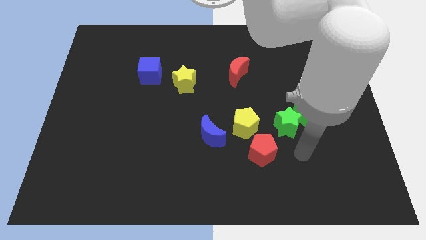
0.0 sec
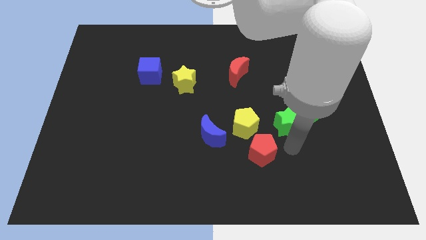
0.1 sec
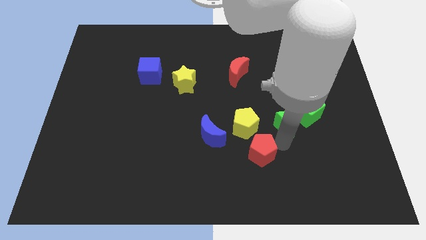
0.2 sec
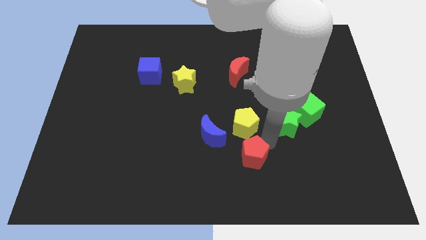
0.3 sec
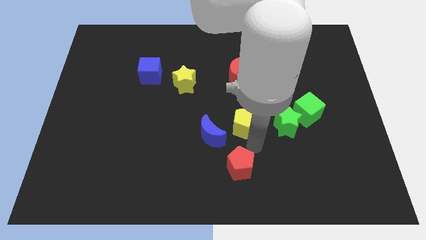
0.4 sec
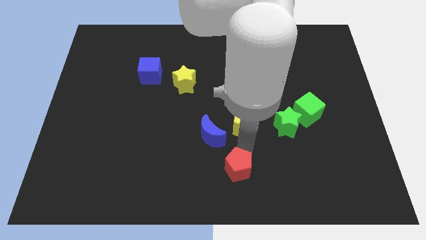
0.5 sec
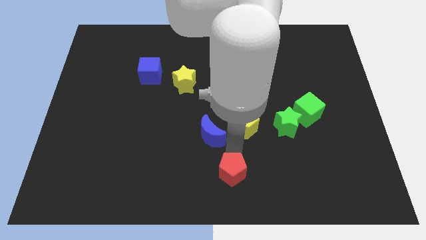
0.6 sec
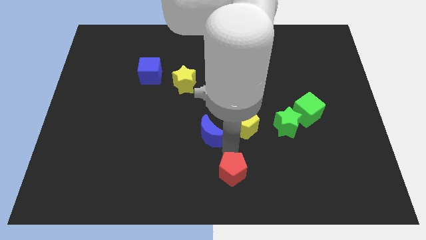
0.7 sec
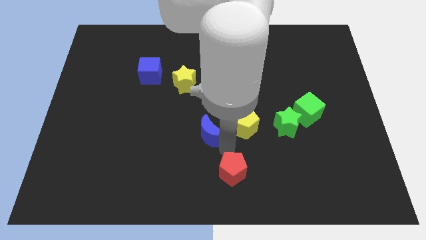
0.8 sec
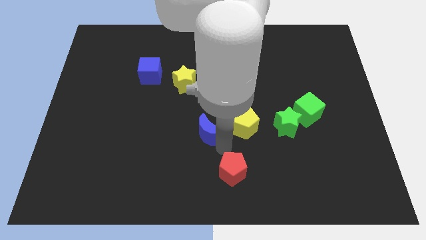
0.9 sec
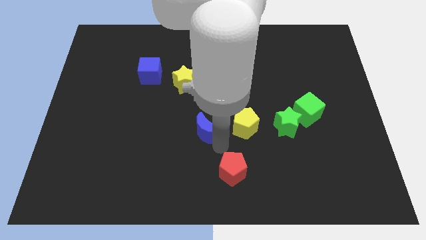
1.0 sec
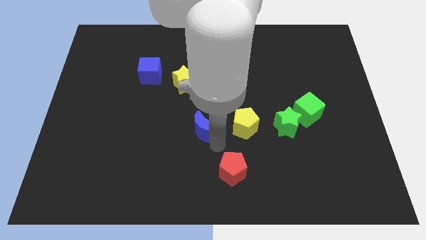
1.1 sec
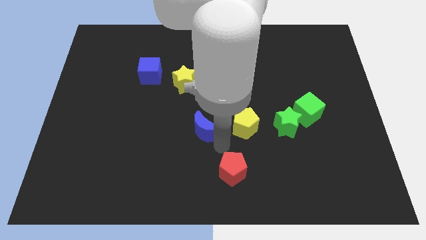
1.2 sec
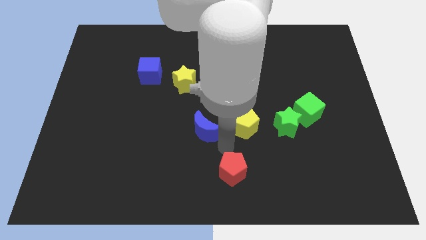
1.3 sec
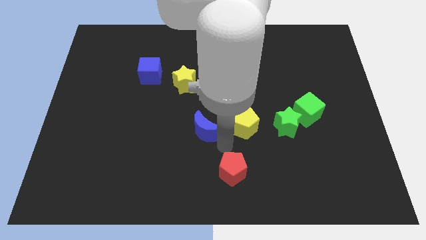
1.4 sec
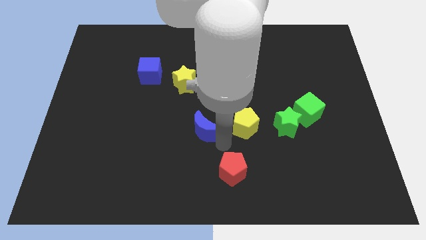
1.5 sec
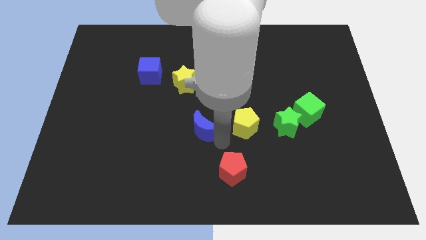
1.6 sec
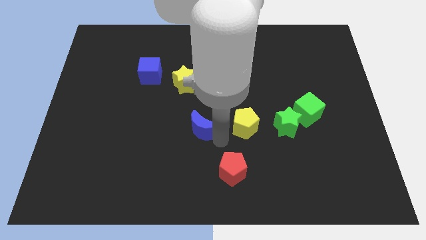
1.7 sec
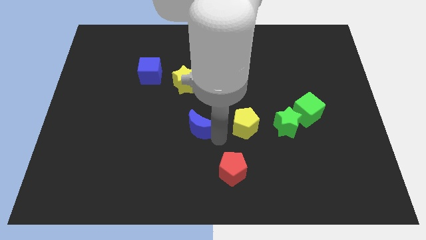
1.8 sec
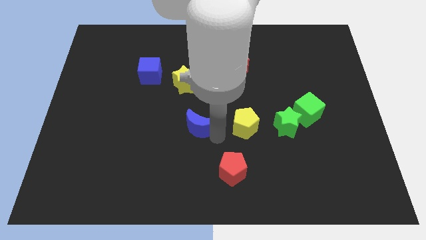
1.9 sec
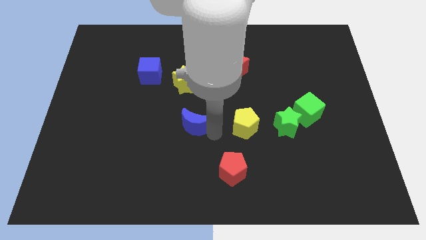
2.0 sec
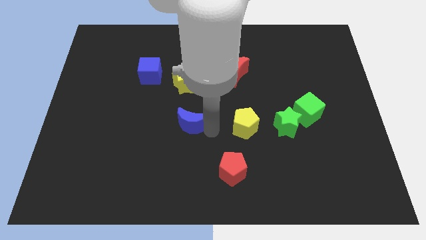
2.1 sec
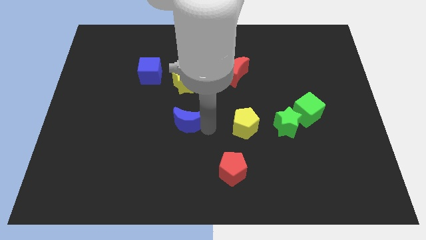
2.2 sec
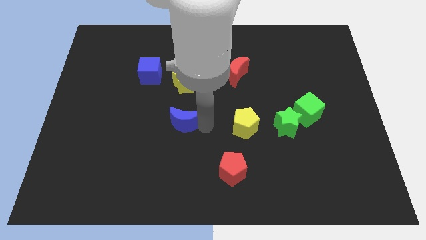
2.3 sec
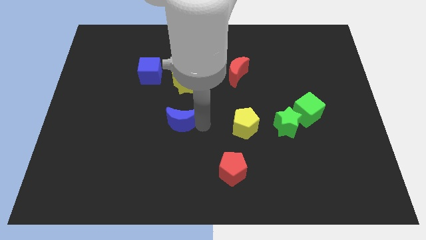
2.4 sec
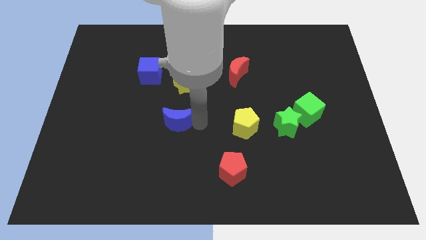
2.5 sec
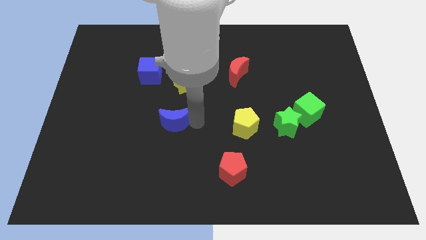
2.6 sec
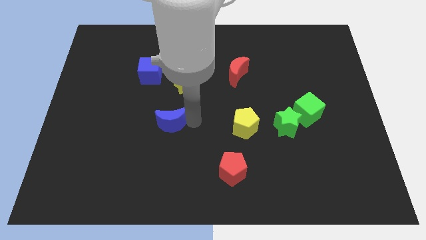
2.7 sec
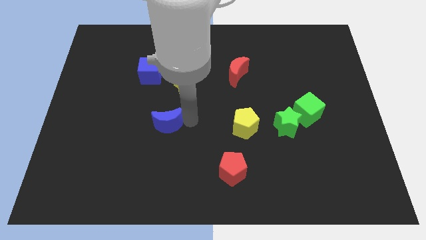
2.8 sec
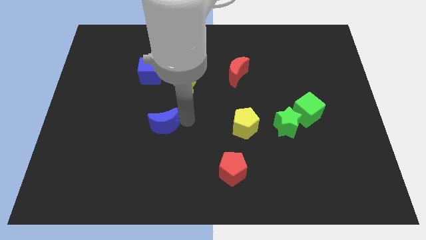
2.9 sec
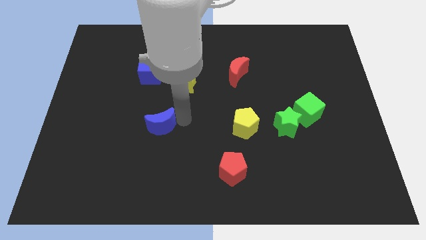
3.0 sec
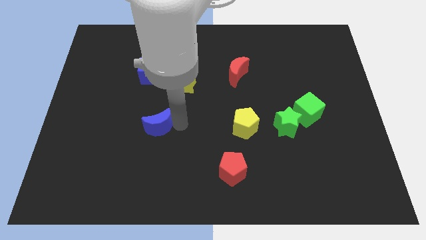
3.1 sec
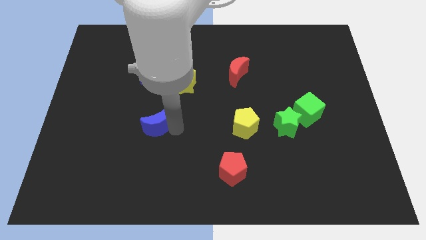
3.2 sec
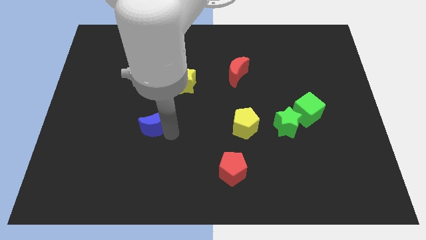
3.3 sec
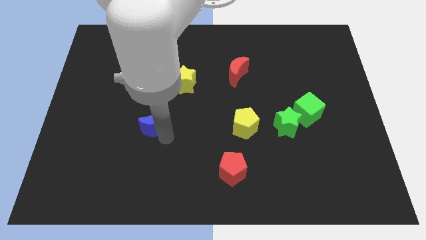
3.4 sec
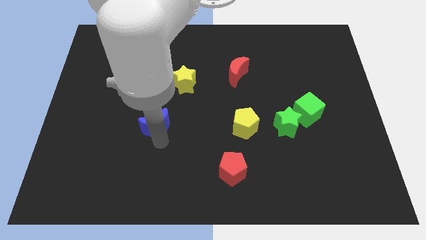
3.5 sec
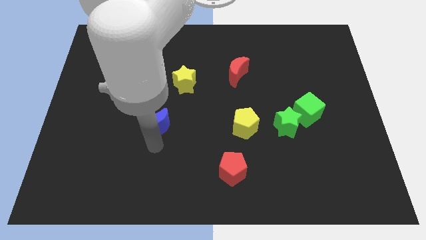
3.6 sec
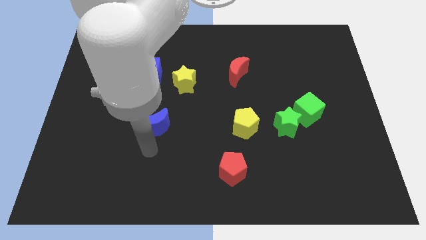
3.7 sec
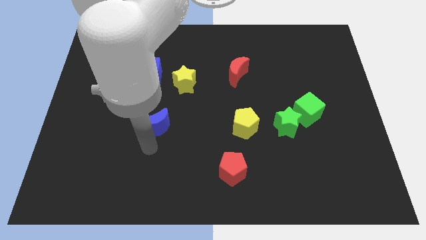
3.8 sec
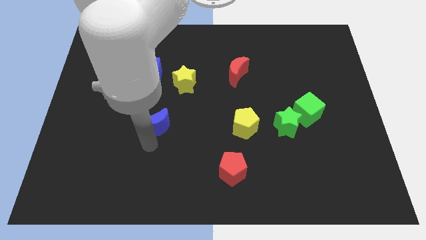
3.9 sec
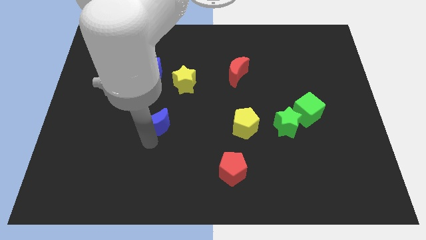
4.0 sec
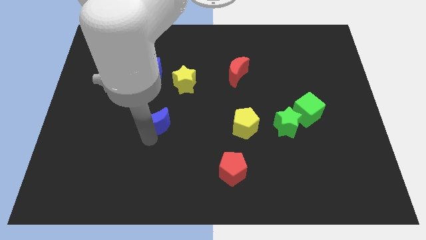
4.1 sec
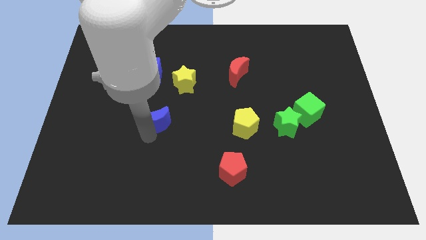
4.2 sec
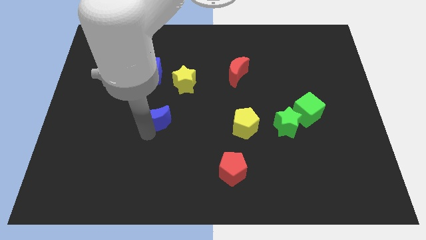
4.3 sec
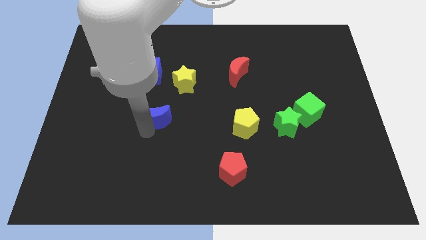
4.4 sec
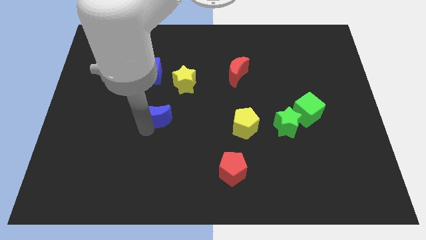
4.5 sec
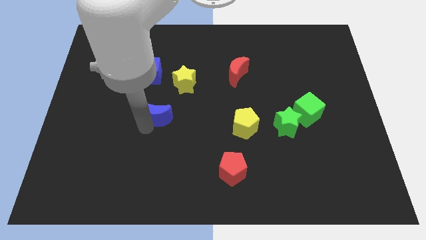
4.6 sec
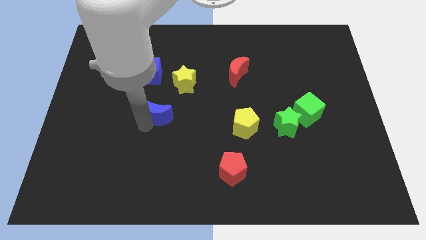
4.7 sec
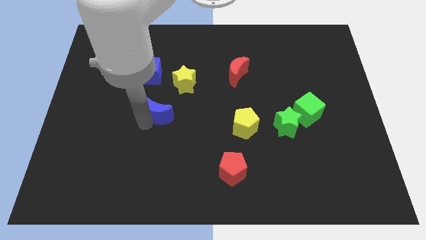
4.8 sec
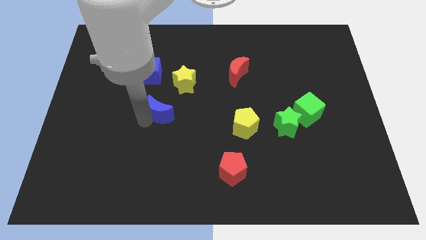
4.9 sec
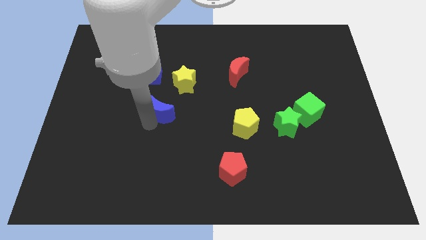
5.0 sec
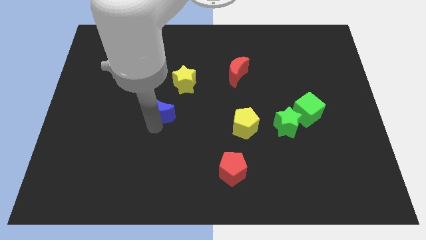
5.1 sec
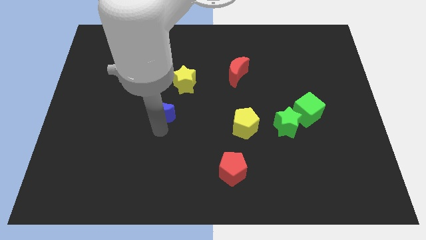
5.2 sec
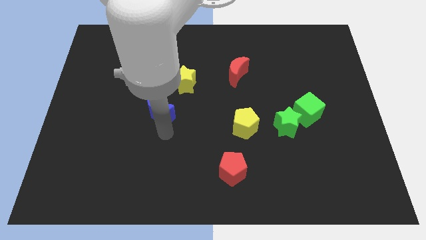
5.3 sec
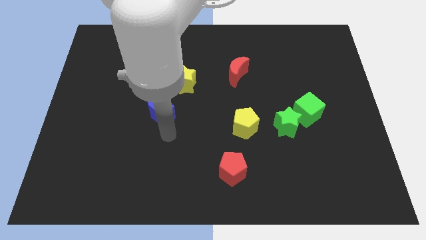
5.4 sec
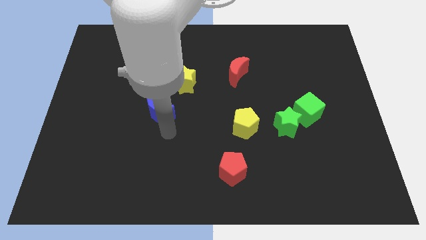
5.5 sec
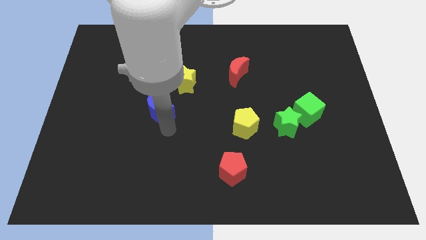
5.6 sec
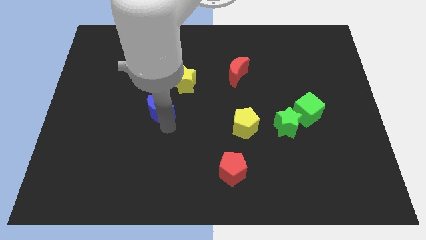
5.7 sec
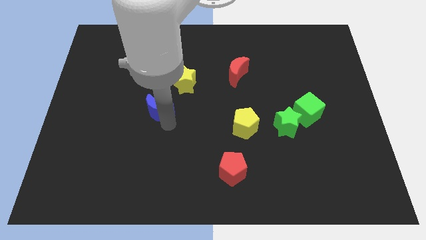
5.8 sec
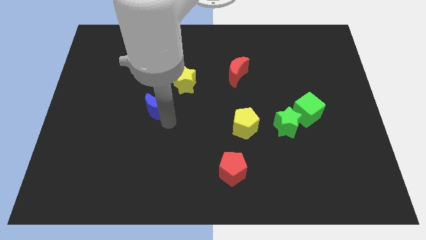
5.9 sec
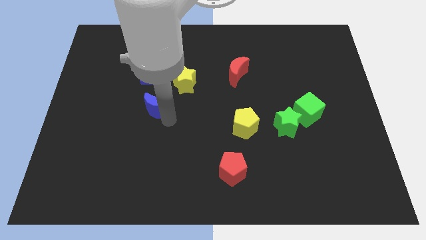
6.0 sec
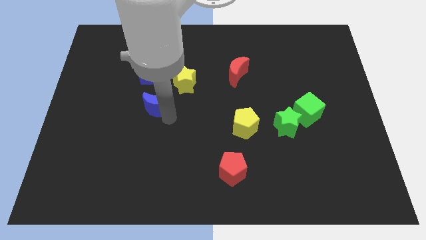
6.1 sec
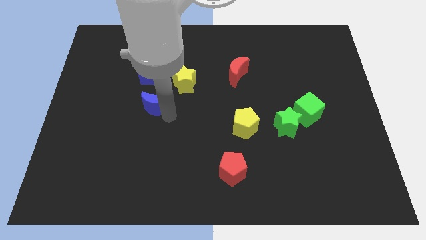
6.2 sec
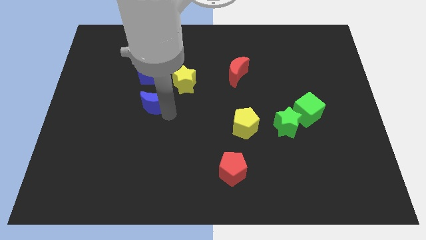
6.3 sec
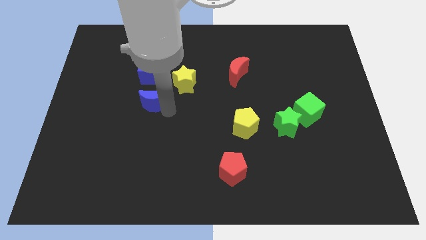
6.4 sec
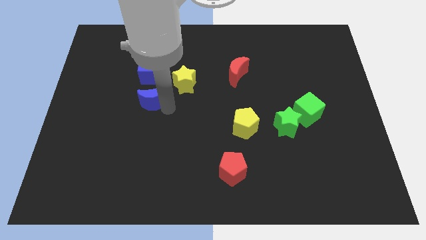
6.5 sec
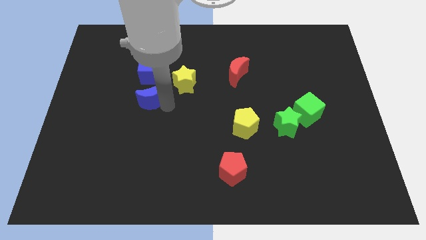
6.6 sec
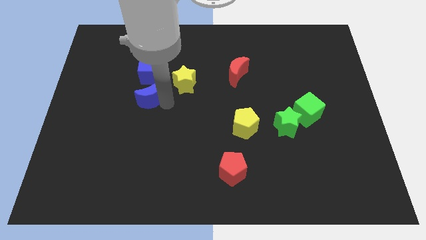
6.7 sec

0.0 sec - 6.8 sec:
slide the blue moon left of the yellow star
